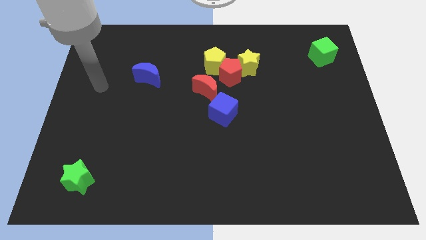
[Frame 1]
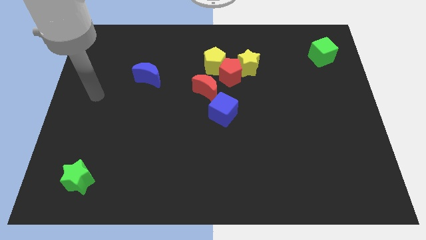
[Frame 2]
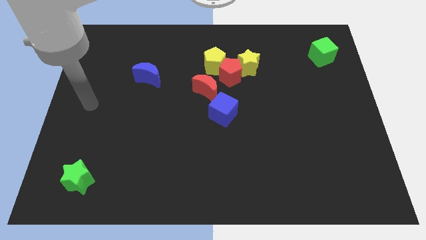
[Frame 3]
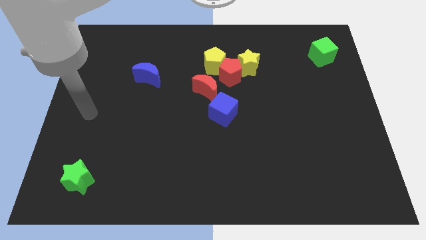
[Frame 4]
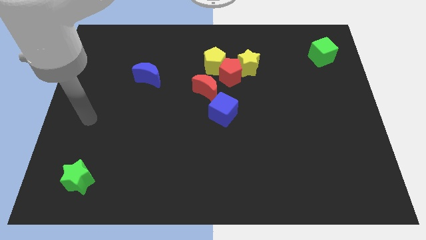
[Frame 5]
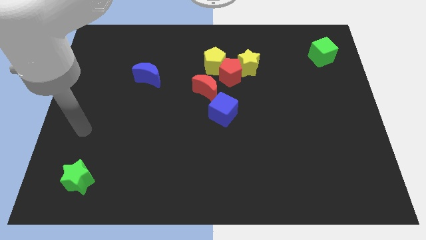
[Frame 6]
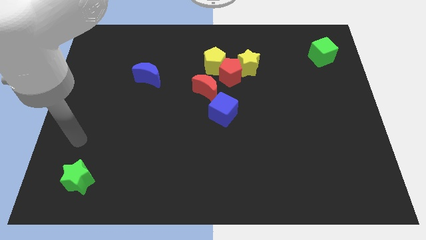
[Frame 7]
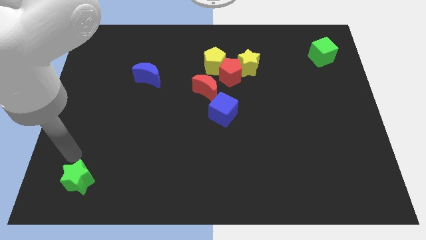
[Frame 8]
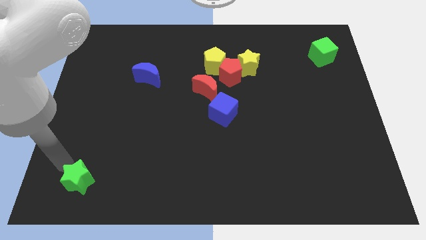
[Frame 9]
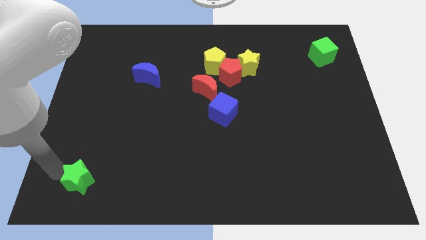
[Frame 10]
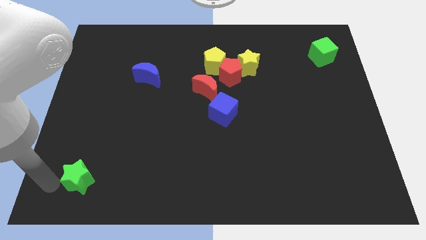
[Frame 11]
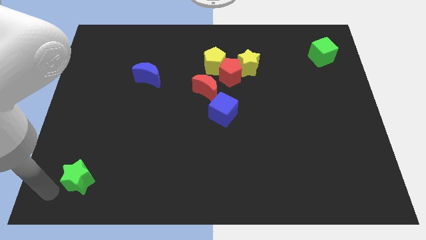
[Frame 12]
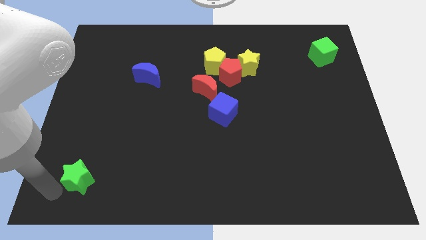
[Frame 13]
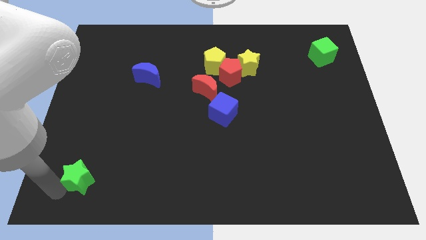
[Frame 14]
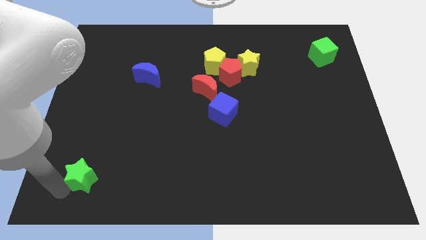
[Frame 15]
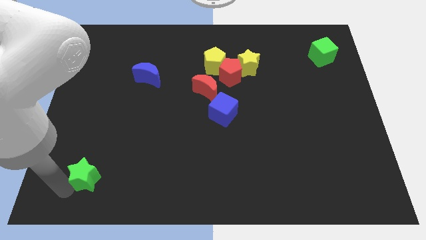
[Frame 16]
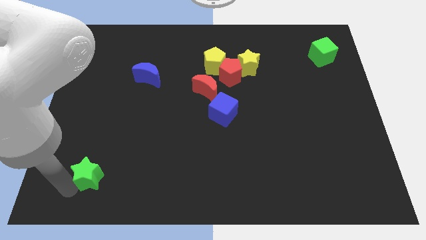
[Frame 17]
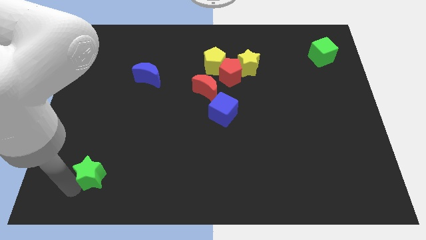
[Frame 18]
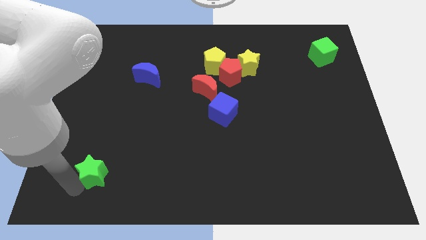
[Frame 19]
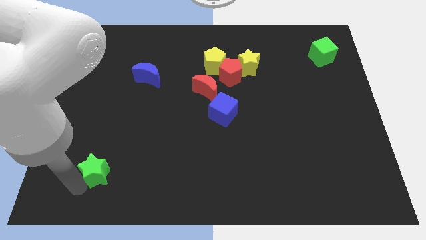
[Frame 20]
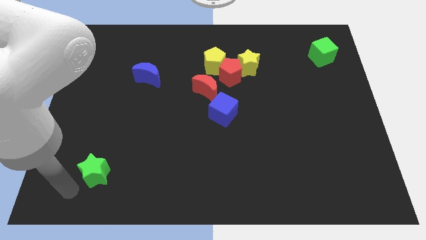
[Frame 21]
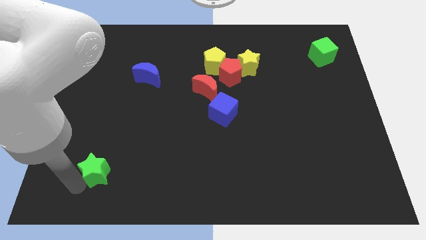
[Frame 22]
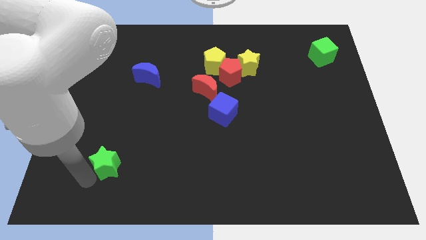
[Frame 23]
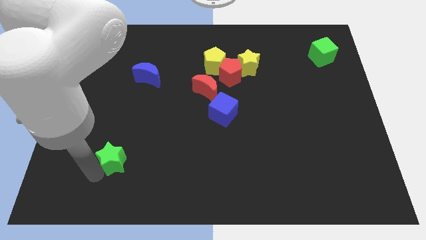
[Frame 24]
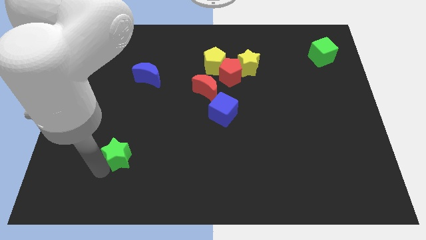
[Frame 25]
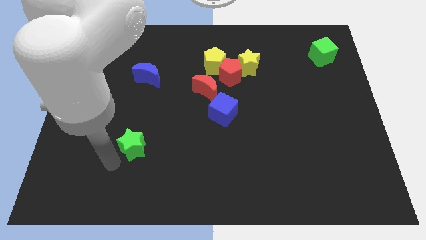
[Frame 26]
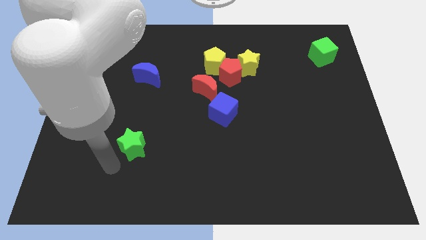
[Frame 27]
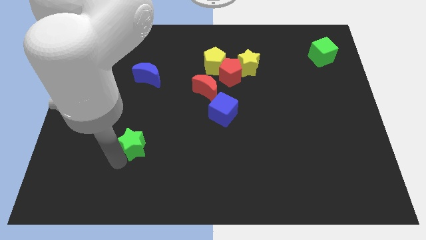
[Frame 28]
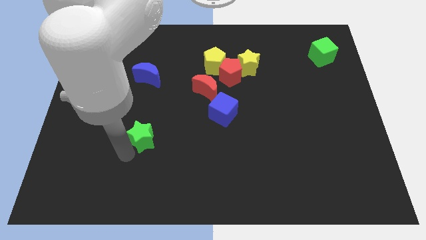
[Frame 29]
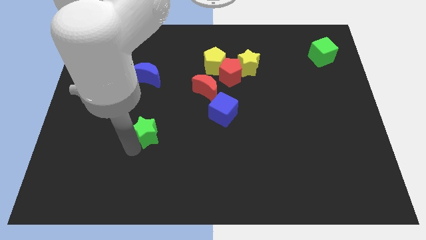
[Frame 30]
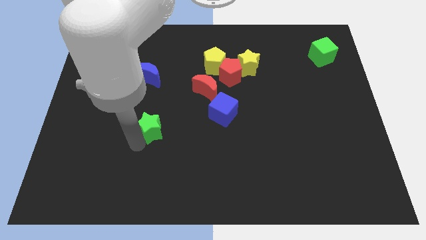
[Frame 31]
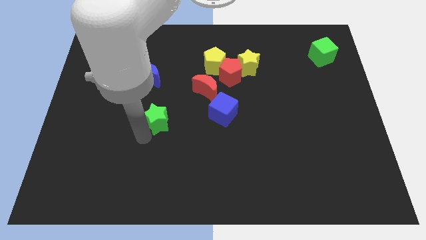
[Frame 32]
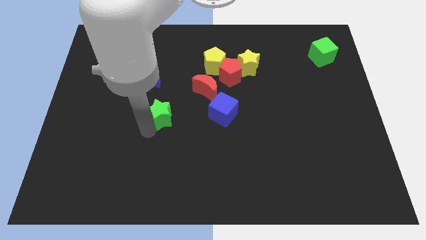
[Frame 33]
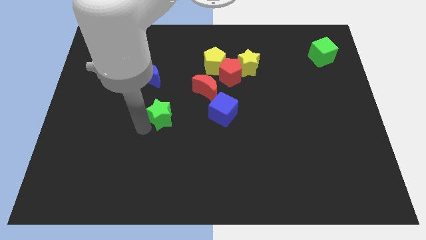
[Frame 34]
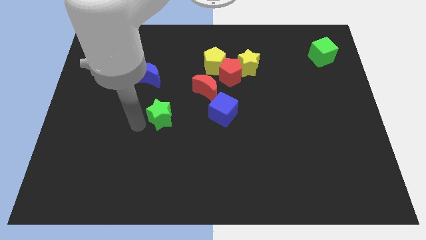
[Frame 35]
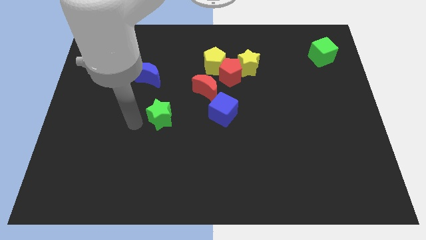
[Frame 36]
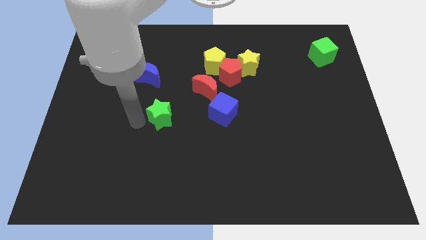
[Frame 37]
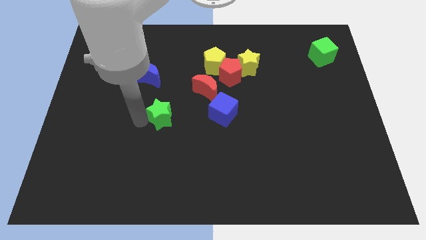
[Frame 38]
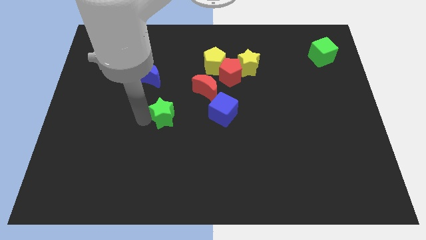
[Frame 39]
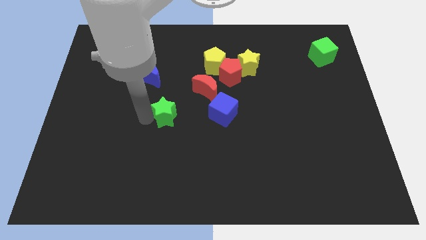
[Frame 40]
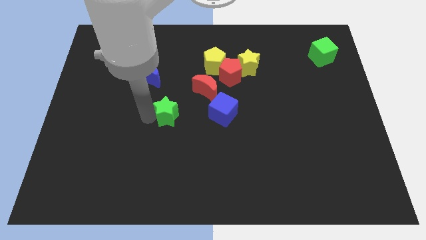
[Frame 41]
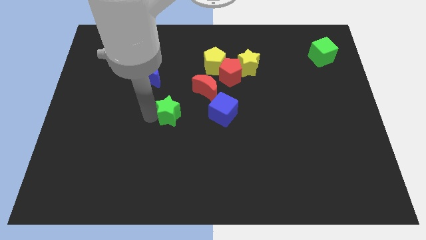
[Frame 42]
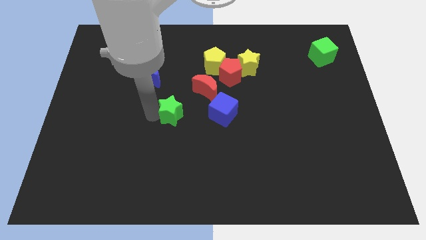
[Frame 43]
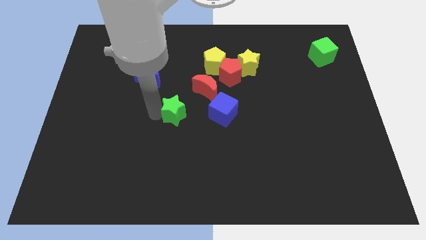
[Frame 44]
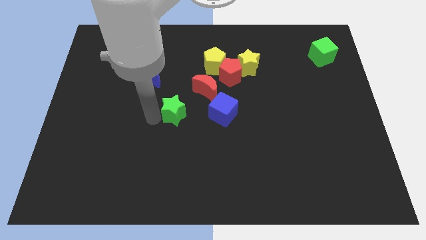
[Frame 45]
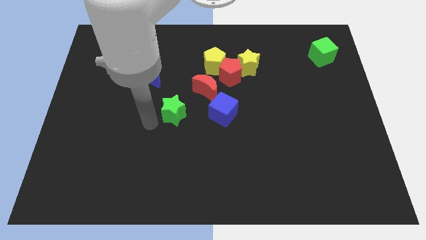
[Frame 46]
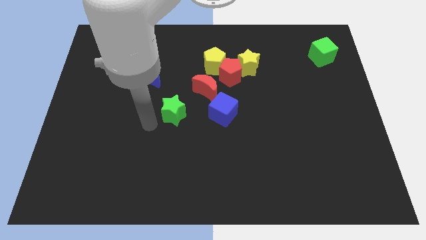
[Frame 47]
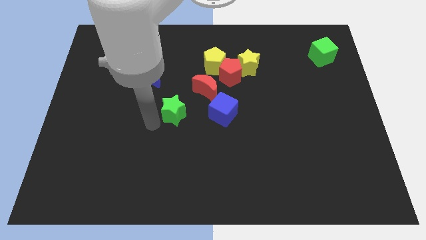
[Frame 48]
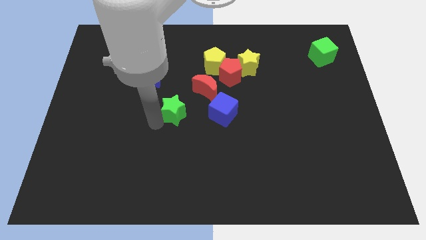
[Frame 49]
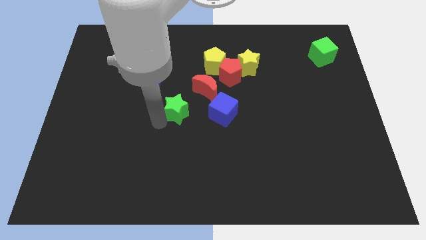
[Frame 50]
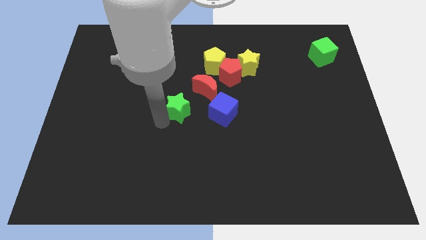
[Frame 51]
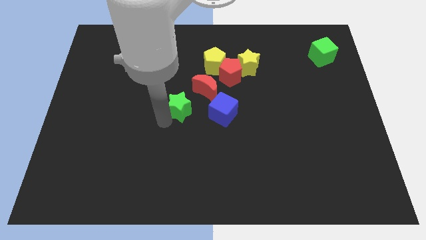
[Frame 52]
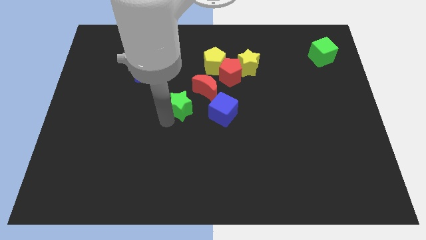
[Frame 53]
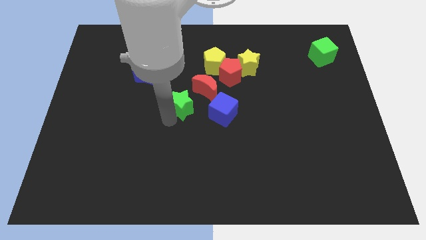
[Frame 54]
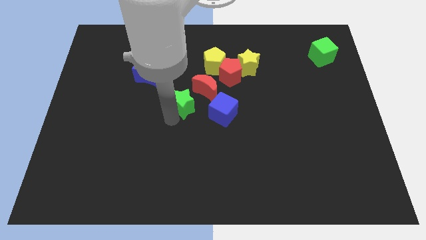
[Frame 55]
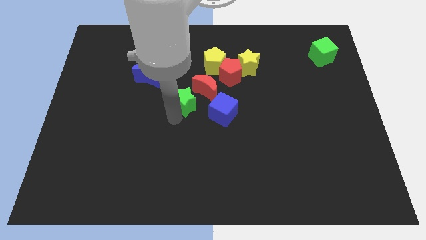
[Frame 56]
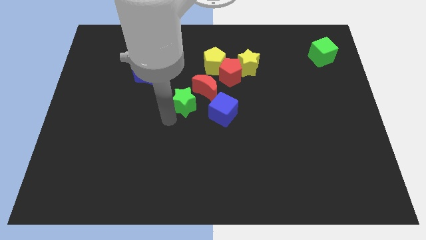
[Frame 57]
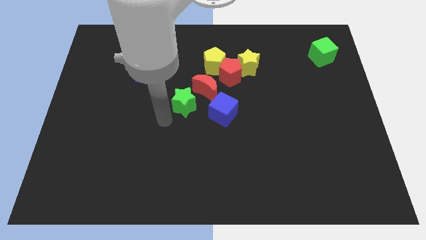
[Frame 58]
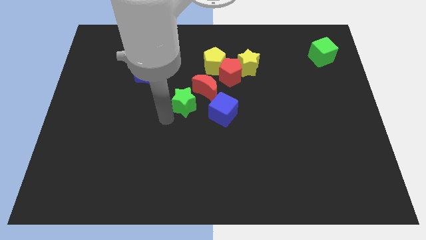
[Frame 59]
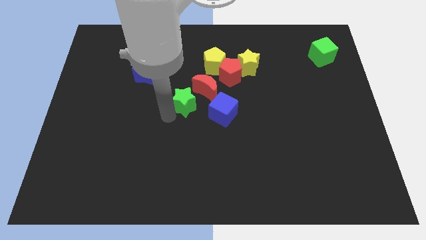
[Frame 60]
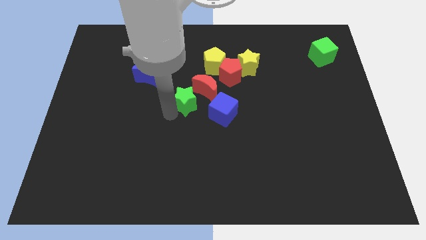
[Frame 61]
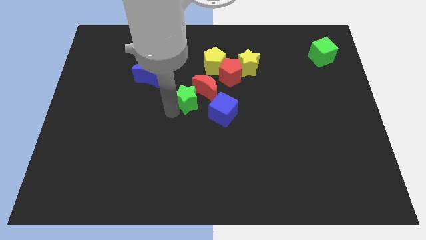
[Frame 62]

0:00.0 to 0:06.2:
put the green star to the red moon

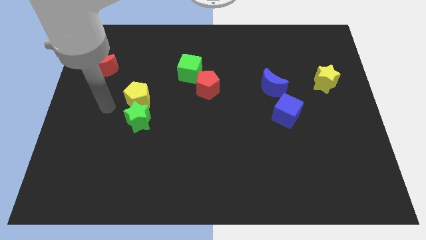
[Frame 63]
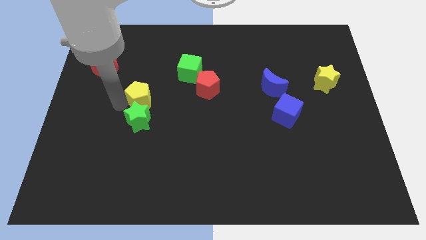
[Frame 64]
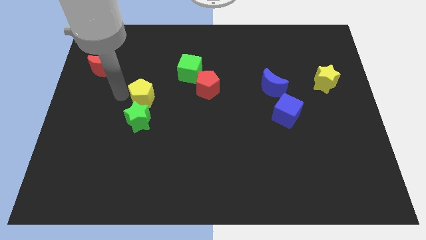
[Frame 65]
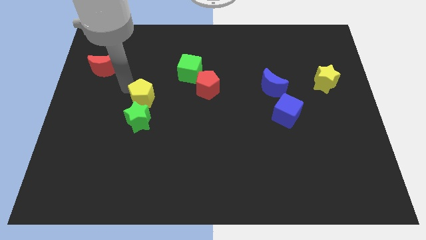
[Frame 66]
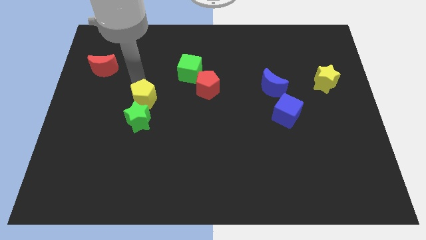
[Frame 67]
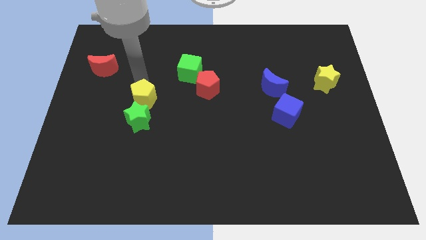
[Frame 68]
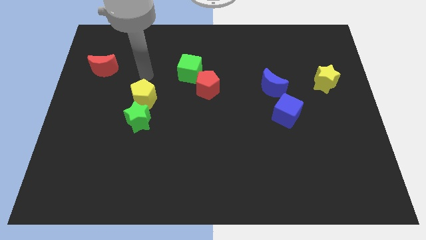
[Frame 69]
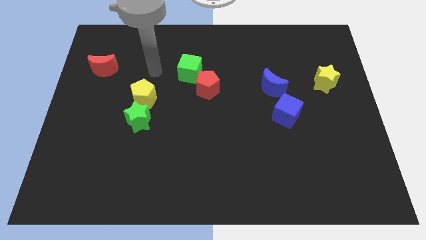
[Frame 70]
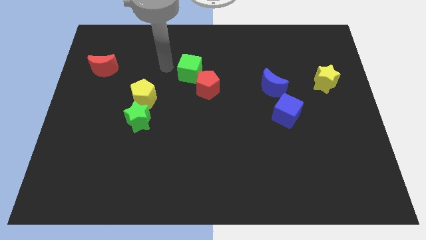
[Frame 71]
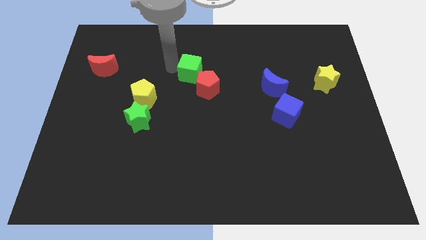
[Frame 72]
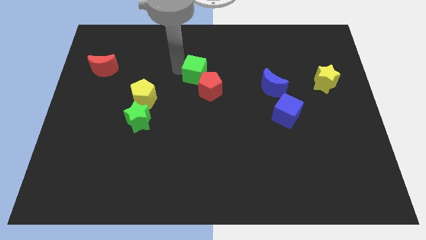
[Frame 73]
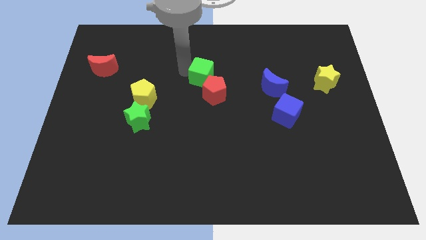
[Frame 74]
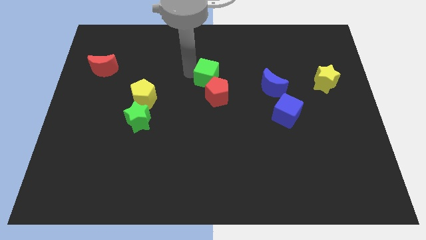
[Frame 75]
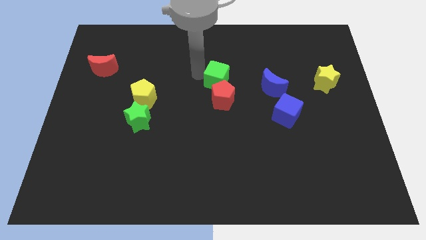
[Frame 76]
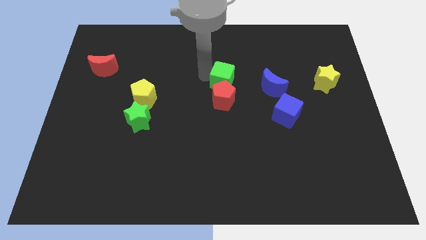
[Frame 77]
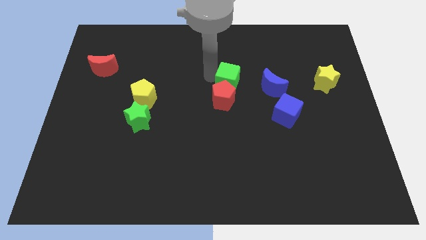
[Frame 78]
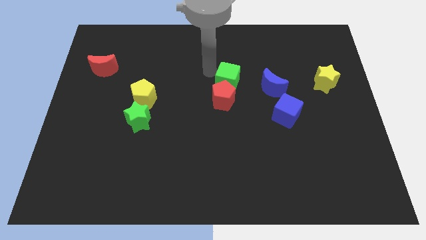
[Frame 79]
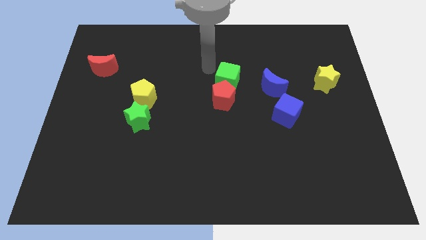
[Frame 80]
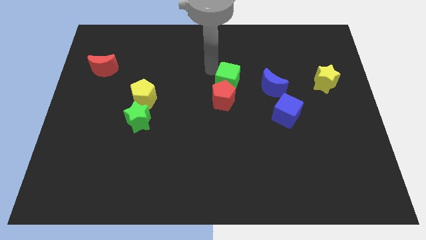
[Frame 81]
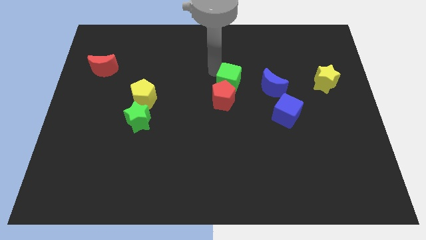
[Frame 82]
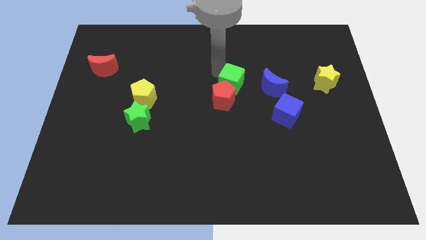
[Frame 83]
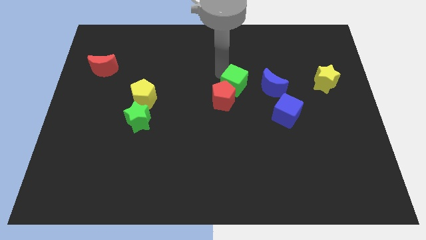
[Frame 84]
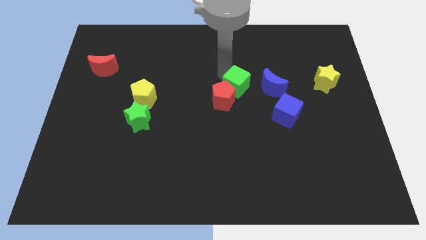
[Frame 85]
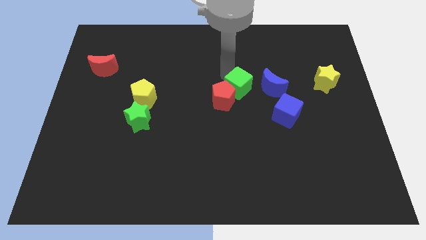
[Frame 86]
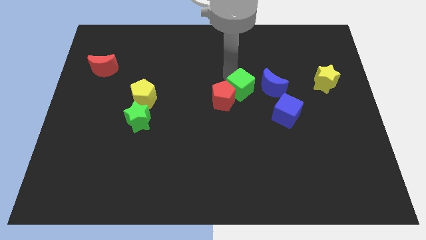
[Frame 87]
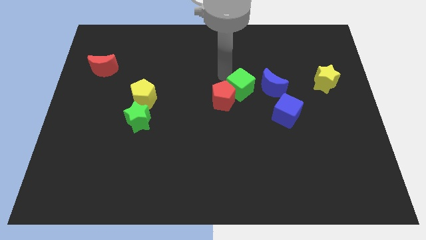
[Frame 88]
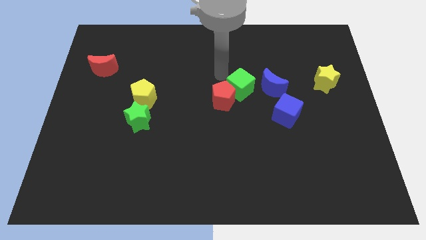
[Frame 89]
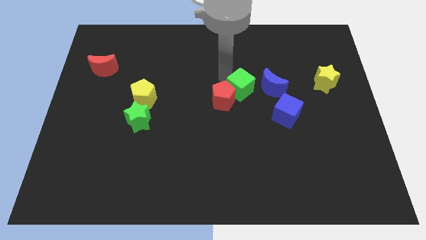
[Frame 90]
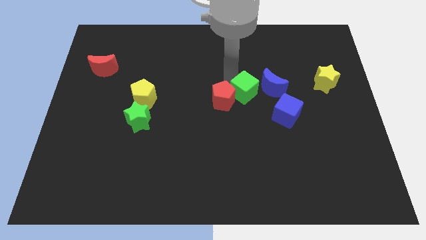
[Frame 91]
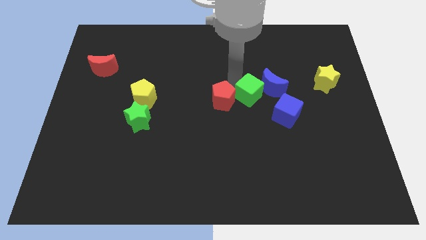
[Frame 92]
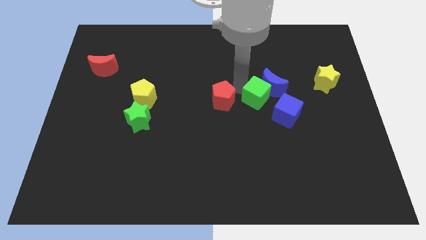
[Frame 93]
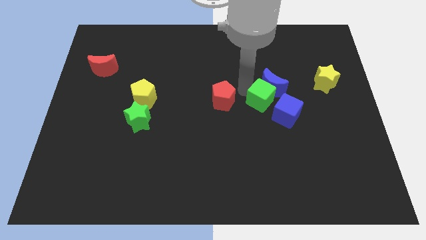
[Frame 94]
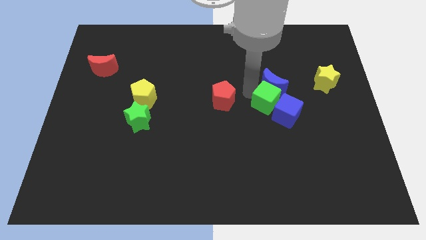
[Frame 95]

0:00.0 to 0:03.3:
slide the green cube to the blue cube
